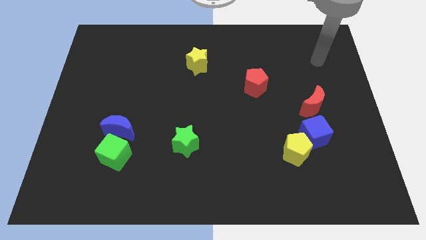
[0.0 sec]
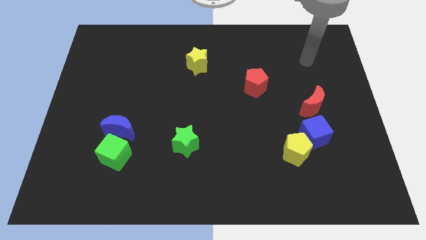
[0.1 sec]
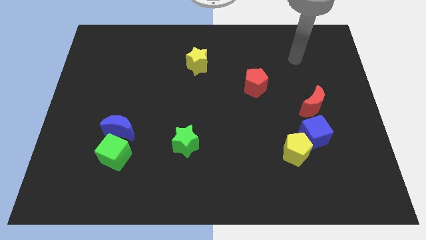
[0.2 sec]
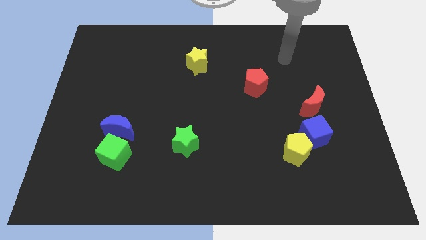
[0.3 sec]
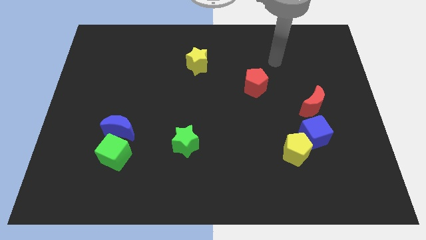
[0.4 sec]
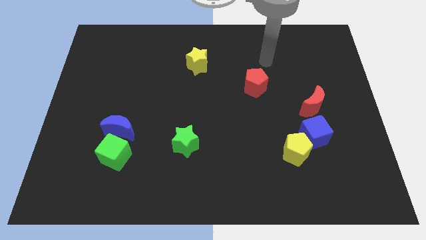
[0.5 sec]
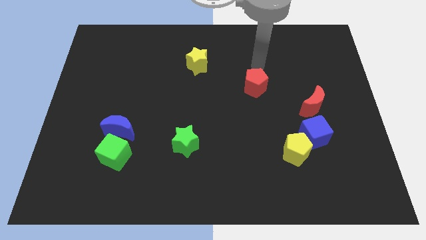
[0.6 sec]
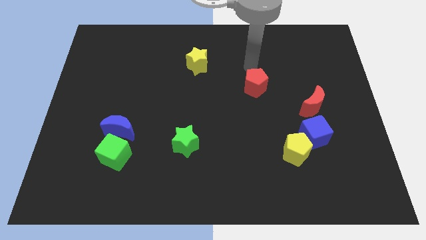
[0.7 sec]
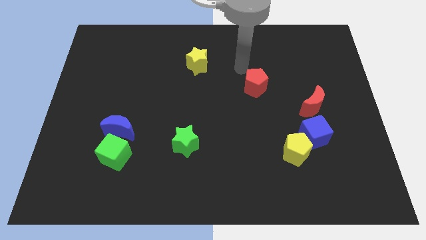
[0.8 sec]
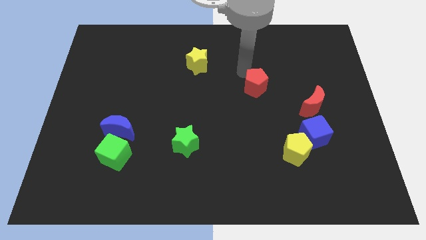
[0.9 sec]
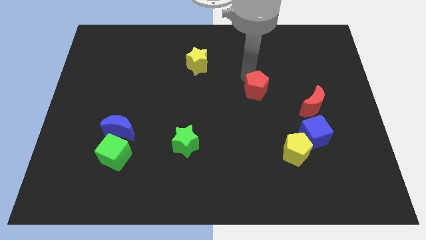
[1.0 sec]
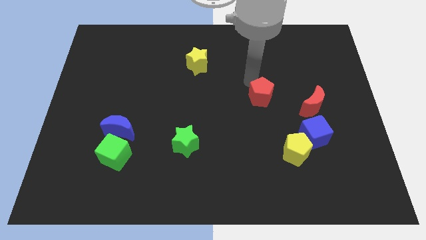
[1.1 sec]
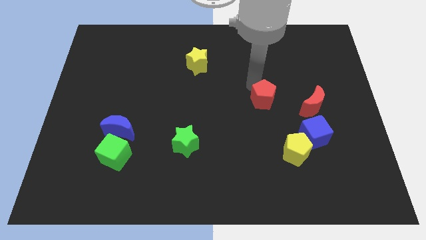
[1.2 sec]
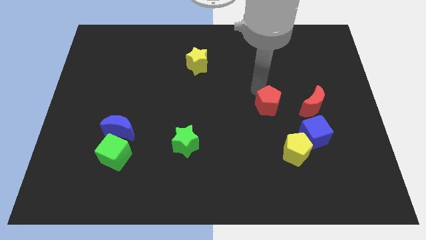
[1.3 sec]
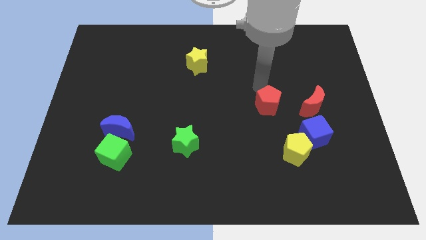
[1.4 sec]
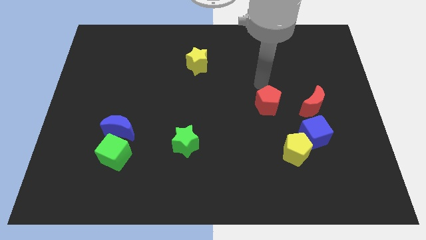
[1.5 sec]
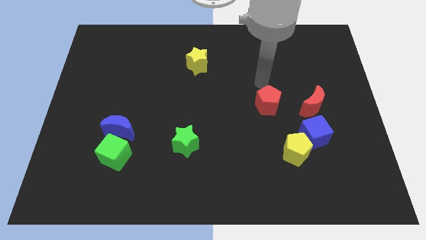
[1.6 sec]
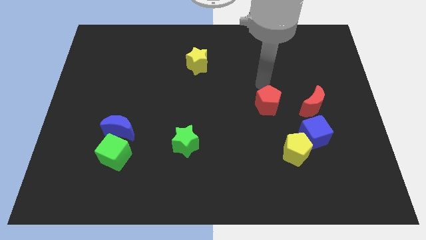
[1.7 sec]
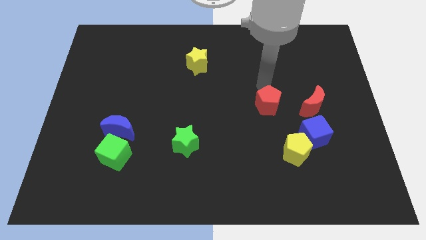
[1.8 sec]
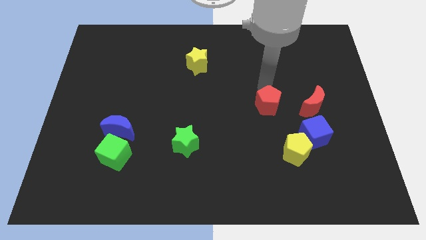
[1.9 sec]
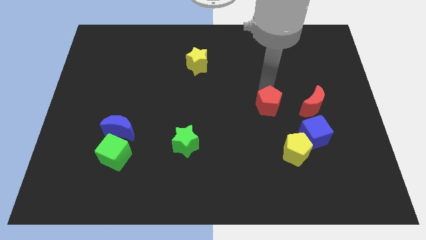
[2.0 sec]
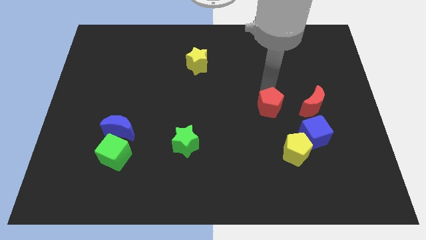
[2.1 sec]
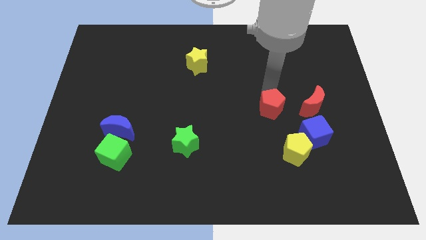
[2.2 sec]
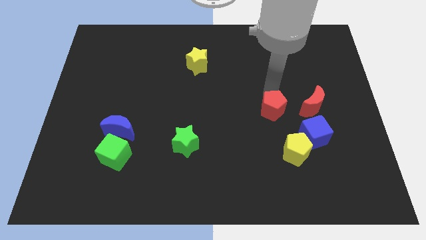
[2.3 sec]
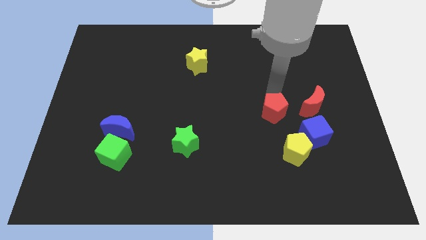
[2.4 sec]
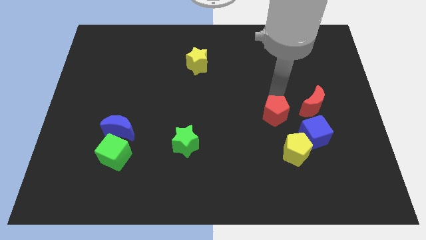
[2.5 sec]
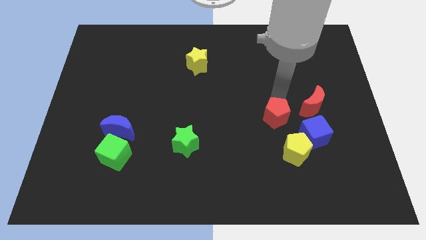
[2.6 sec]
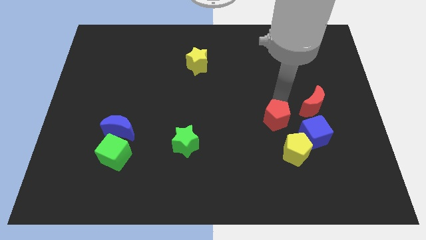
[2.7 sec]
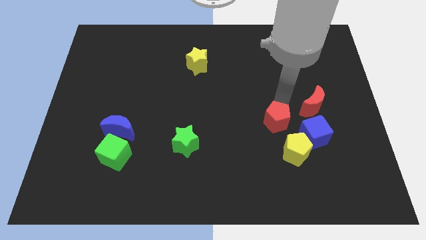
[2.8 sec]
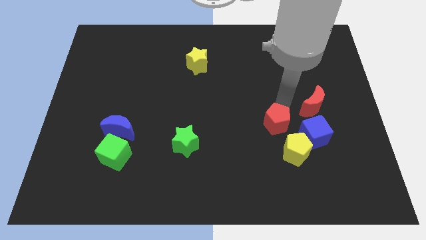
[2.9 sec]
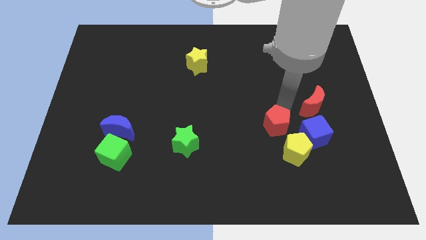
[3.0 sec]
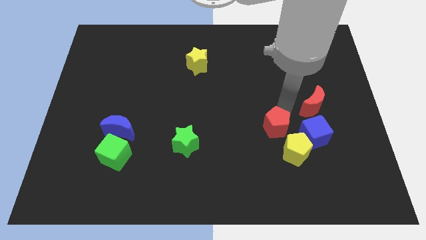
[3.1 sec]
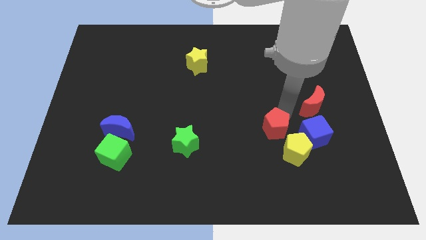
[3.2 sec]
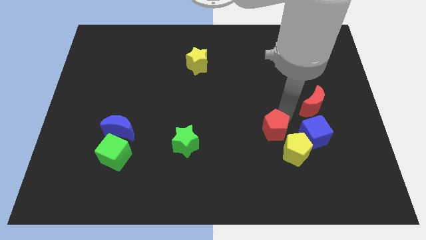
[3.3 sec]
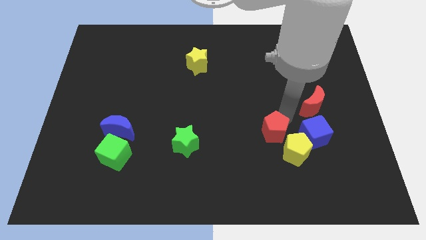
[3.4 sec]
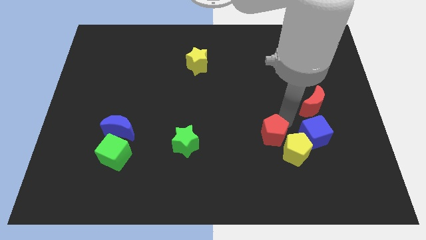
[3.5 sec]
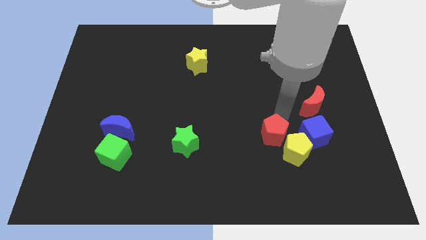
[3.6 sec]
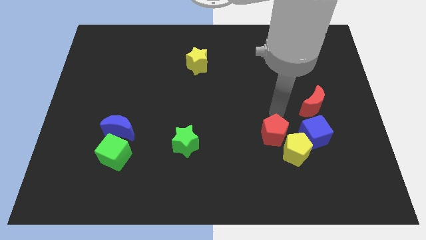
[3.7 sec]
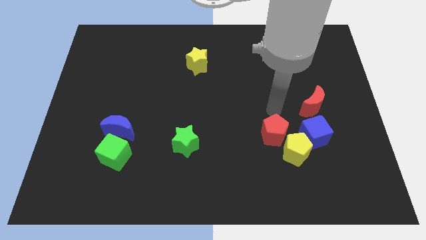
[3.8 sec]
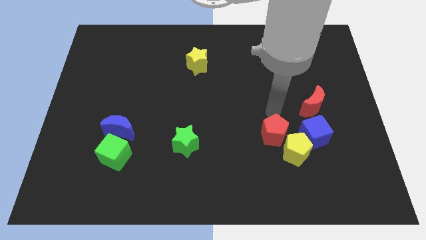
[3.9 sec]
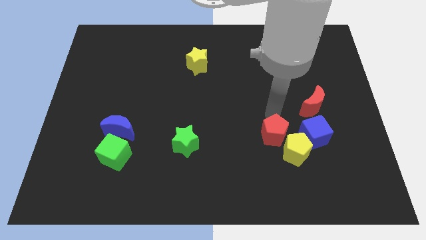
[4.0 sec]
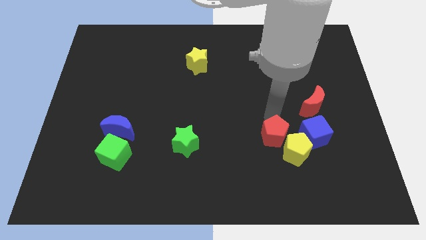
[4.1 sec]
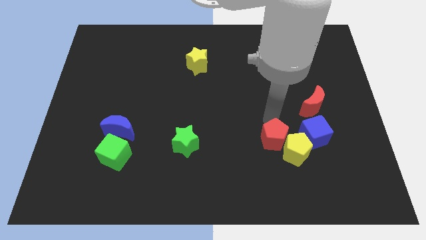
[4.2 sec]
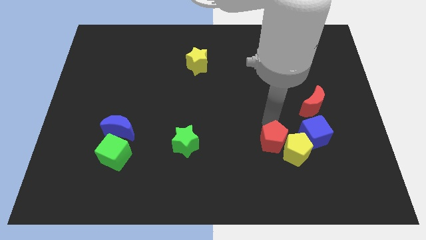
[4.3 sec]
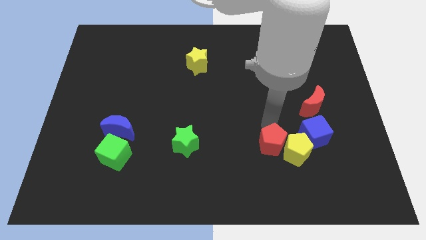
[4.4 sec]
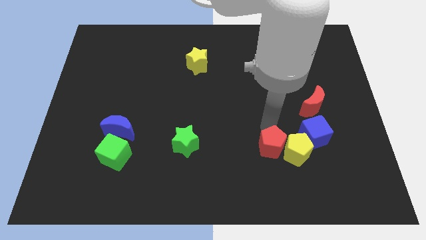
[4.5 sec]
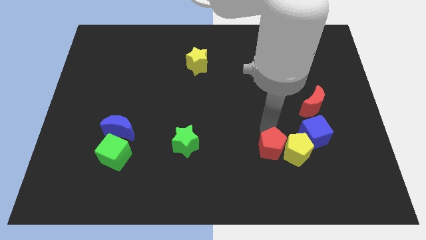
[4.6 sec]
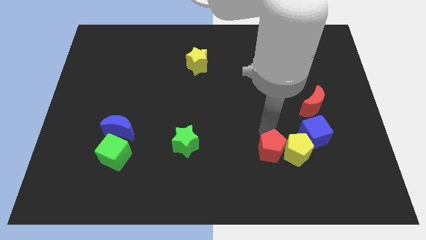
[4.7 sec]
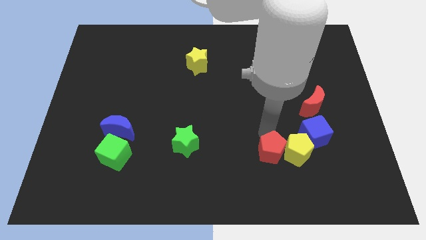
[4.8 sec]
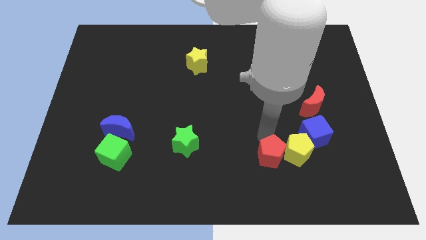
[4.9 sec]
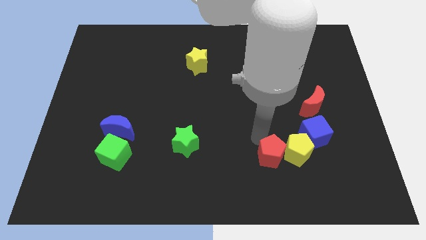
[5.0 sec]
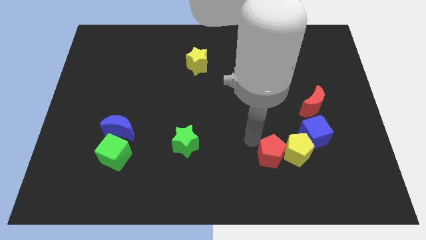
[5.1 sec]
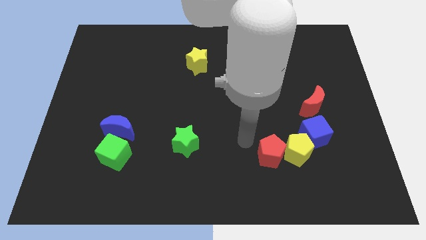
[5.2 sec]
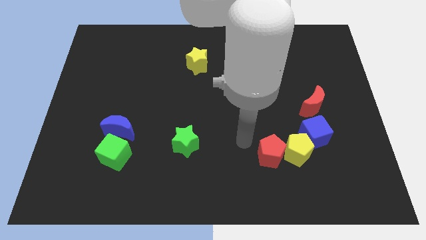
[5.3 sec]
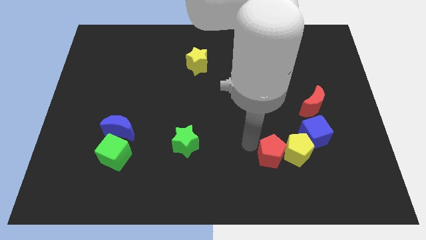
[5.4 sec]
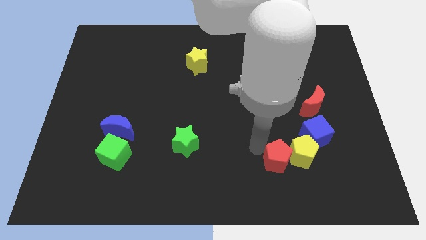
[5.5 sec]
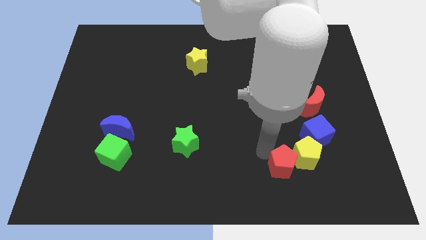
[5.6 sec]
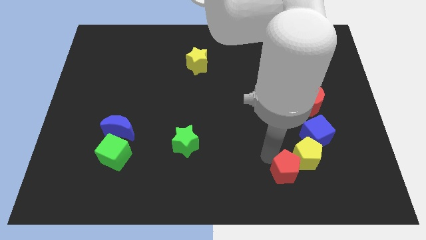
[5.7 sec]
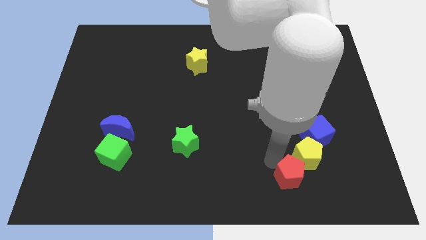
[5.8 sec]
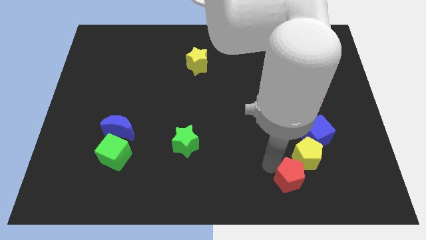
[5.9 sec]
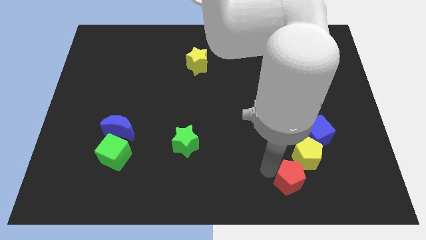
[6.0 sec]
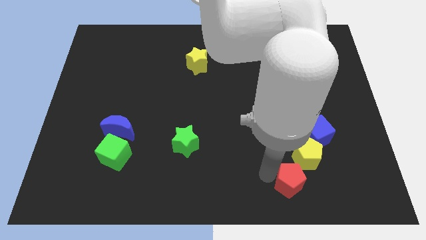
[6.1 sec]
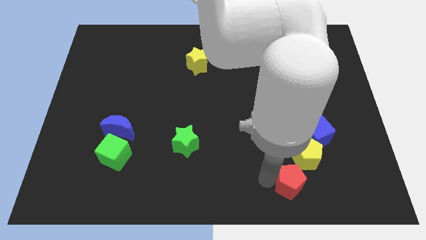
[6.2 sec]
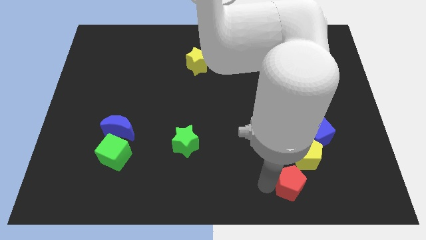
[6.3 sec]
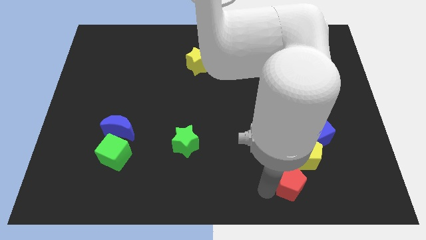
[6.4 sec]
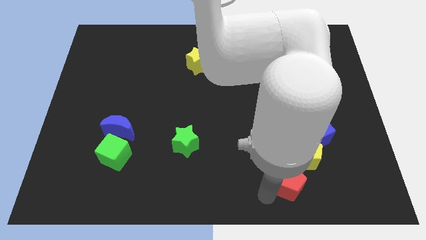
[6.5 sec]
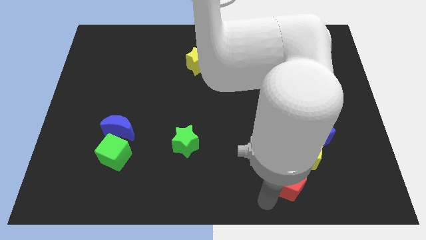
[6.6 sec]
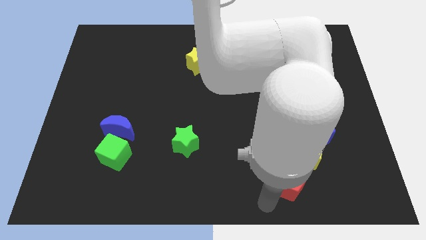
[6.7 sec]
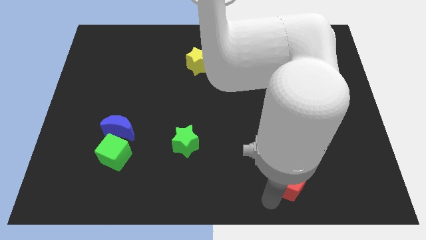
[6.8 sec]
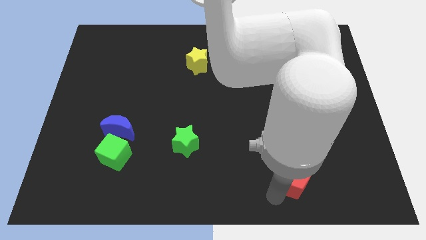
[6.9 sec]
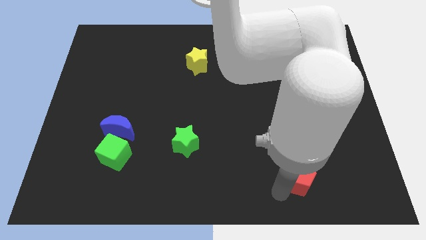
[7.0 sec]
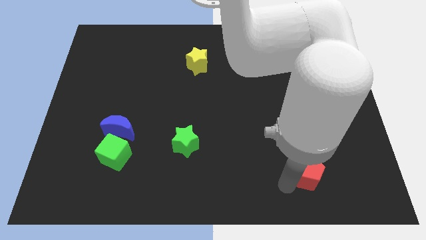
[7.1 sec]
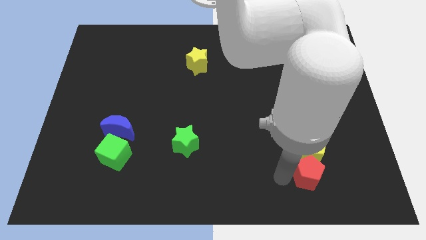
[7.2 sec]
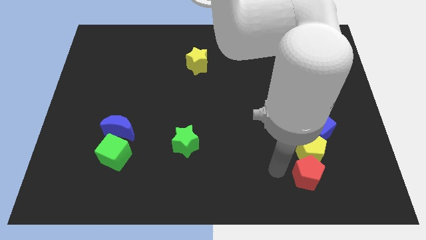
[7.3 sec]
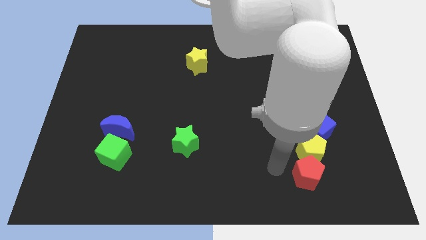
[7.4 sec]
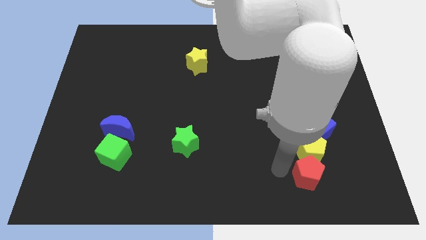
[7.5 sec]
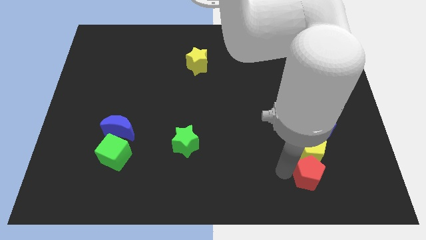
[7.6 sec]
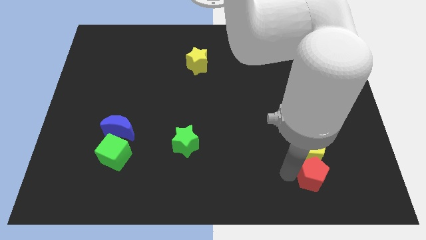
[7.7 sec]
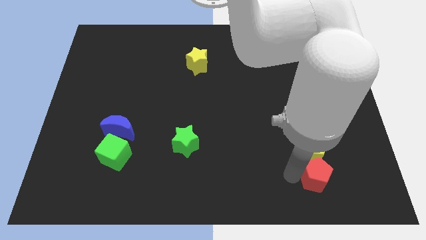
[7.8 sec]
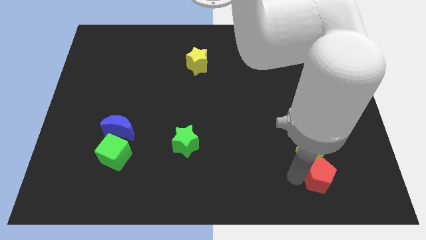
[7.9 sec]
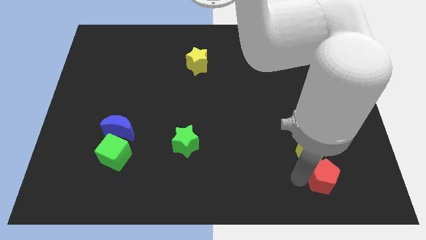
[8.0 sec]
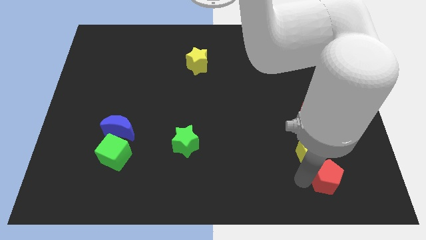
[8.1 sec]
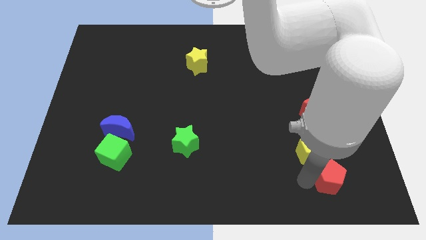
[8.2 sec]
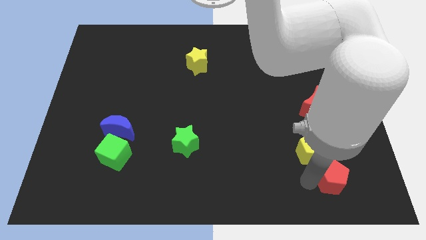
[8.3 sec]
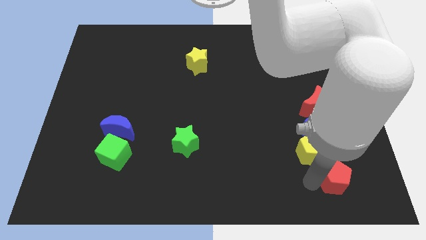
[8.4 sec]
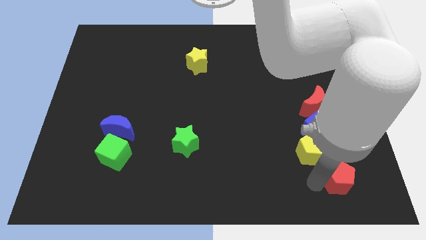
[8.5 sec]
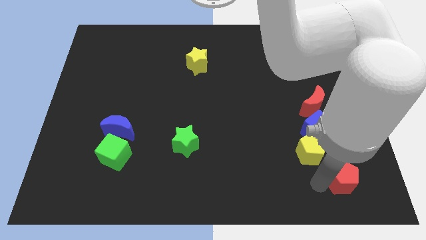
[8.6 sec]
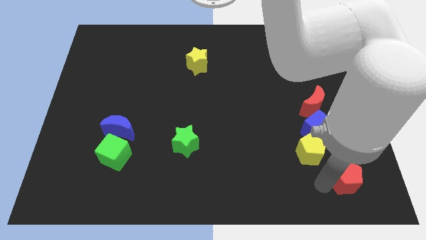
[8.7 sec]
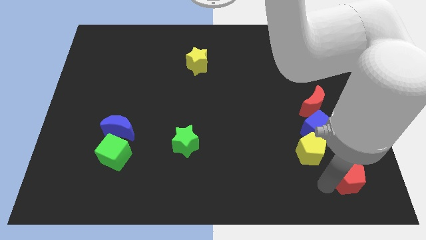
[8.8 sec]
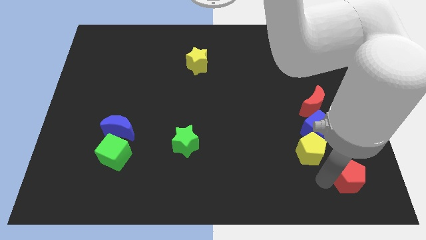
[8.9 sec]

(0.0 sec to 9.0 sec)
put the red pentagon to the bottom right of the board
